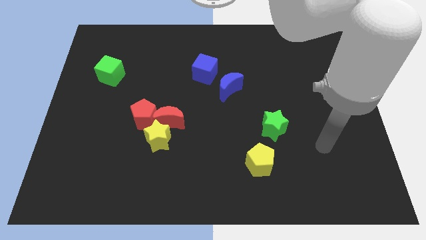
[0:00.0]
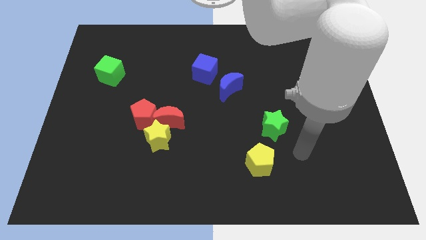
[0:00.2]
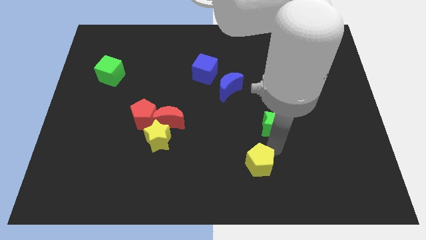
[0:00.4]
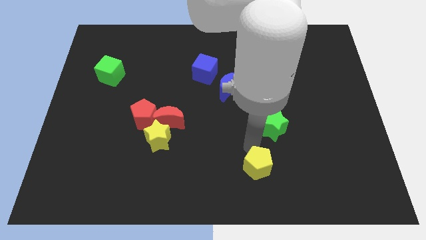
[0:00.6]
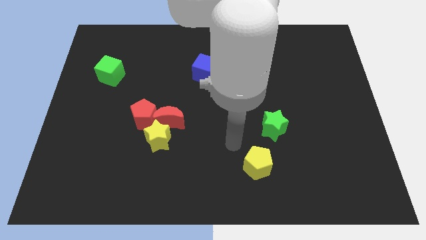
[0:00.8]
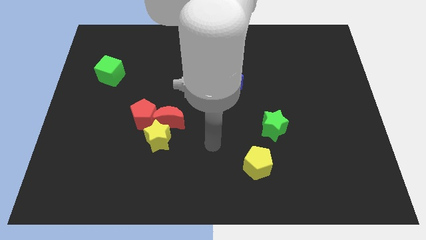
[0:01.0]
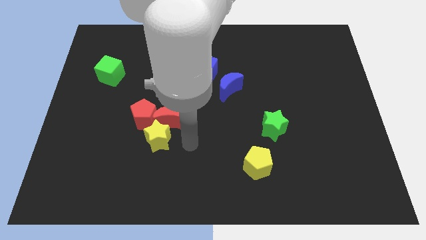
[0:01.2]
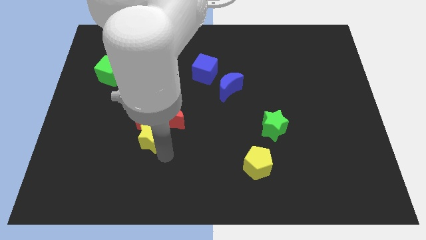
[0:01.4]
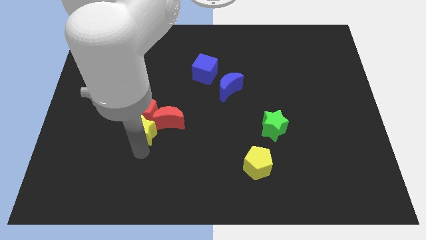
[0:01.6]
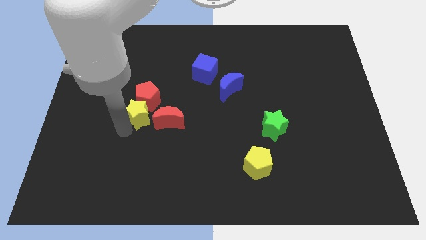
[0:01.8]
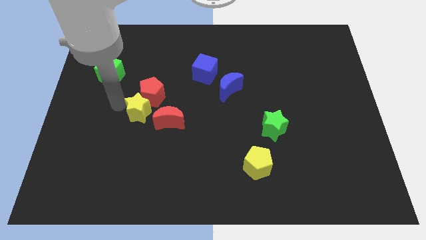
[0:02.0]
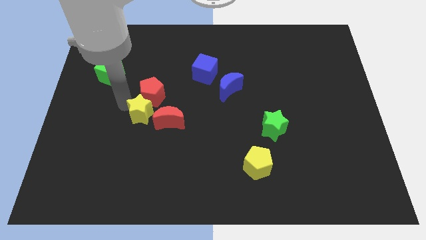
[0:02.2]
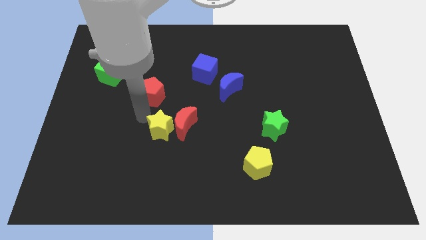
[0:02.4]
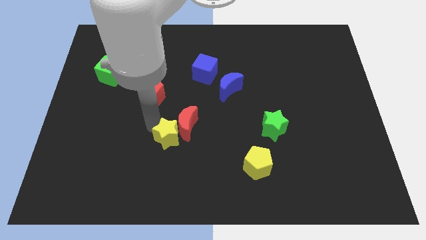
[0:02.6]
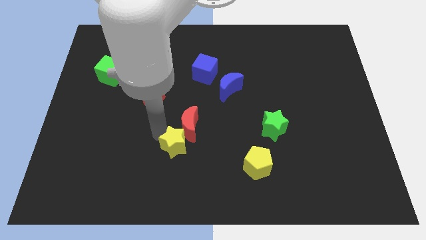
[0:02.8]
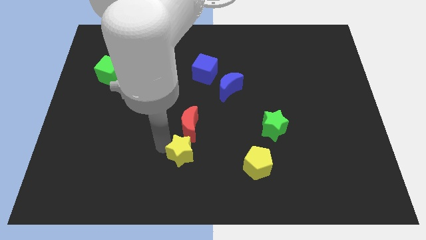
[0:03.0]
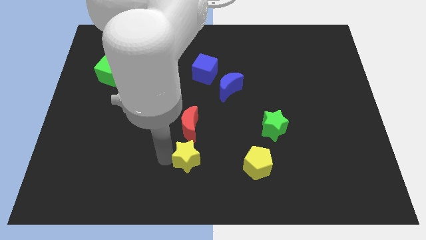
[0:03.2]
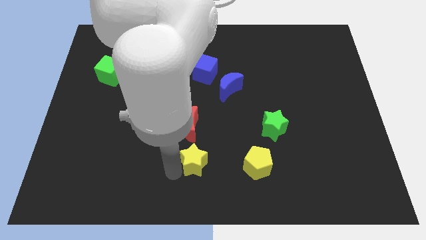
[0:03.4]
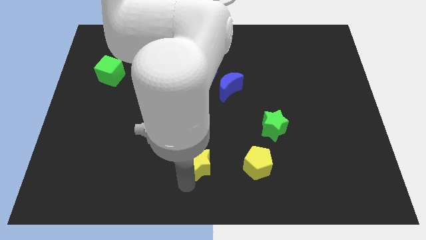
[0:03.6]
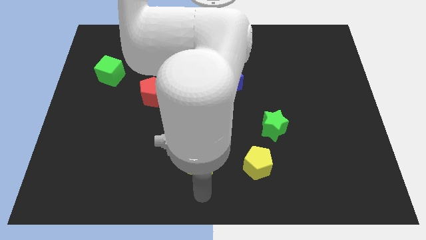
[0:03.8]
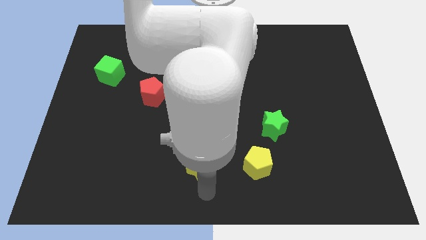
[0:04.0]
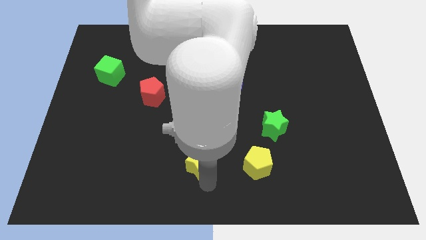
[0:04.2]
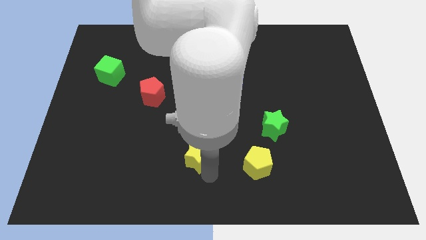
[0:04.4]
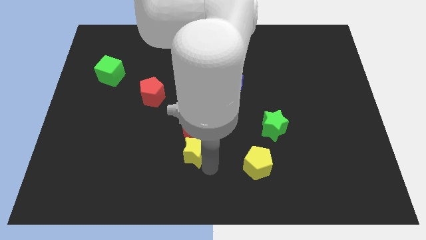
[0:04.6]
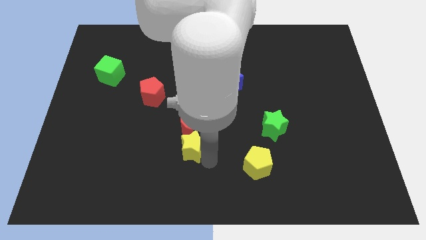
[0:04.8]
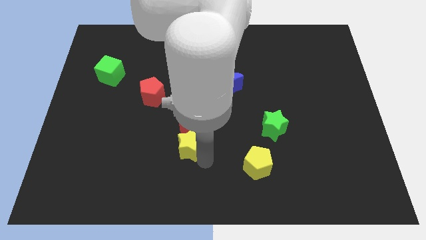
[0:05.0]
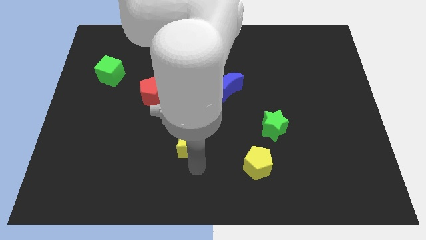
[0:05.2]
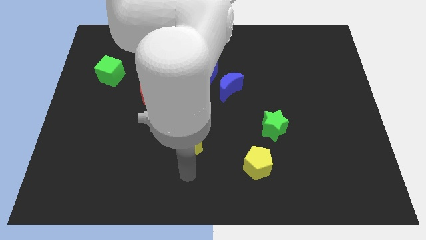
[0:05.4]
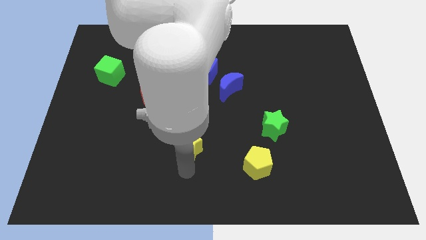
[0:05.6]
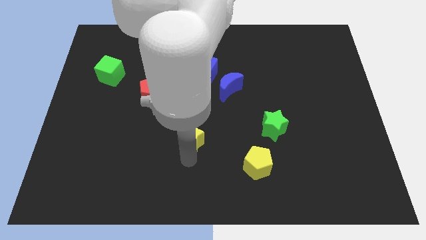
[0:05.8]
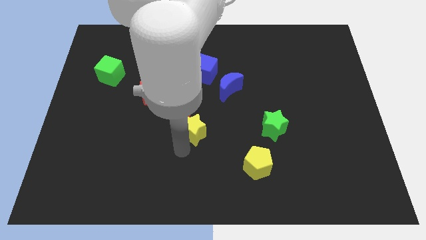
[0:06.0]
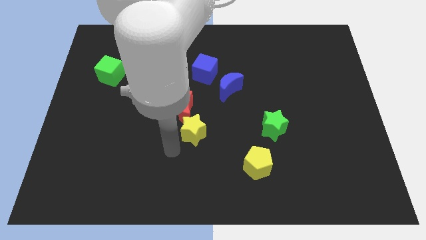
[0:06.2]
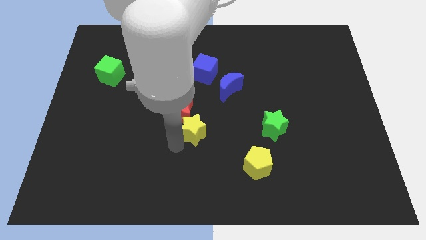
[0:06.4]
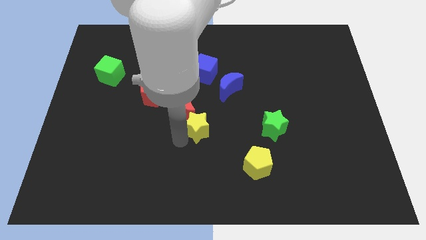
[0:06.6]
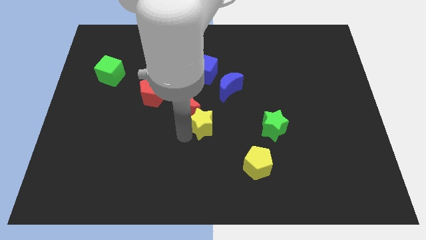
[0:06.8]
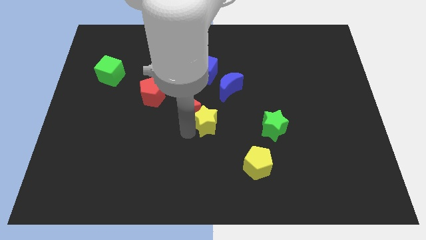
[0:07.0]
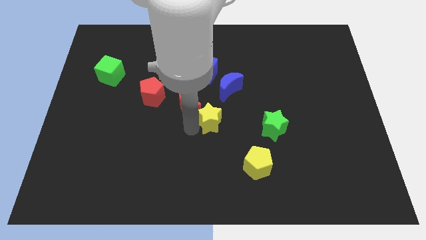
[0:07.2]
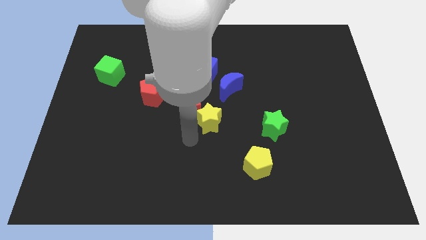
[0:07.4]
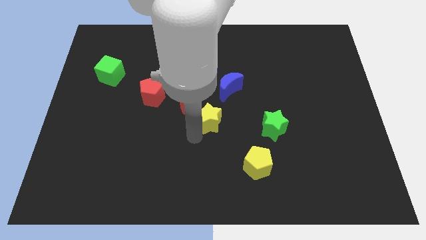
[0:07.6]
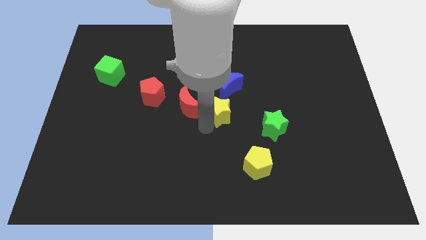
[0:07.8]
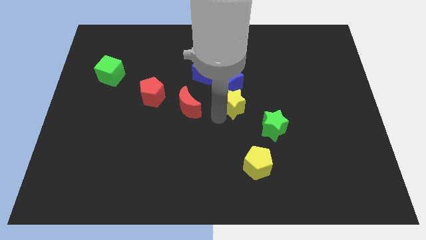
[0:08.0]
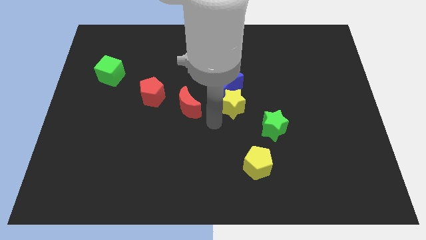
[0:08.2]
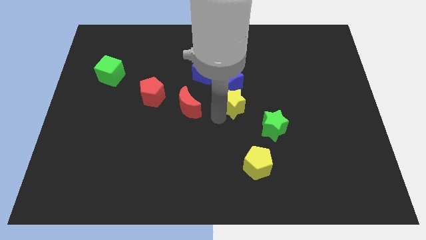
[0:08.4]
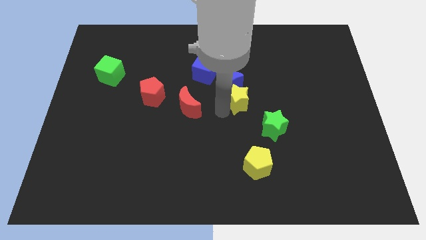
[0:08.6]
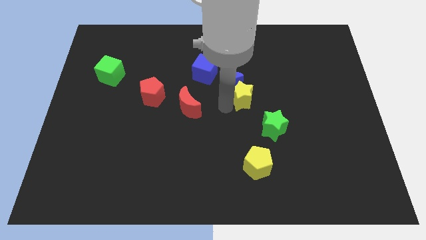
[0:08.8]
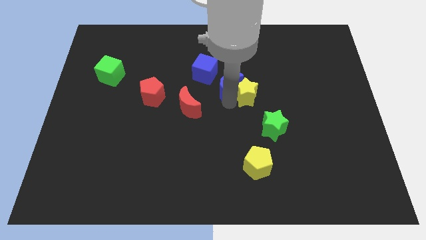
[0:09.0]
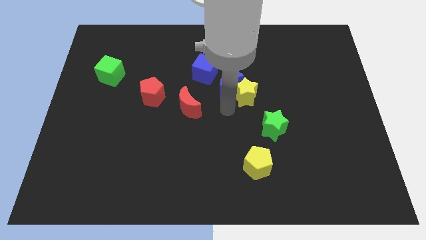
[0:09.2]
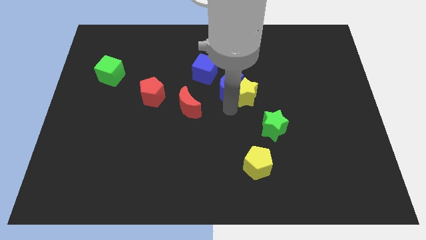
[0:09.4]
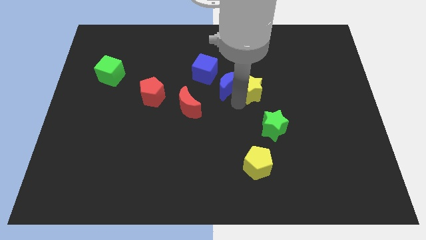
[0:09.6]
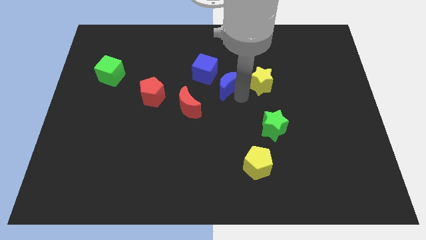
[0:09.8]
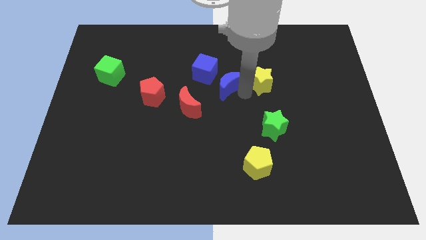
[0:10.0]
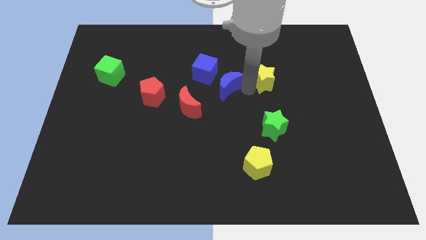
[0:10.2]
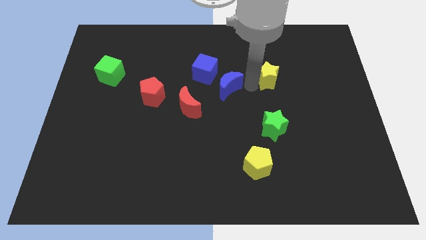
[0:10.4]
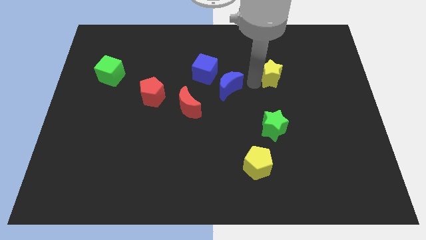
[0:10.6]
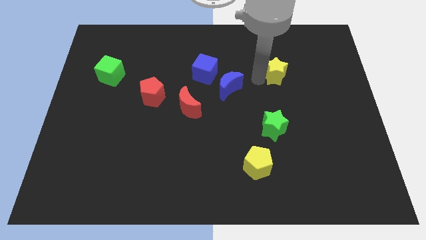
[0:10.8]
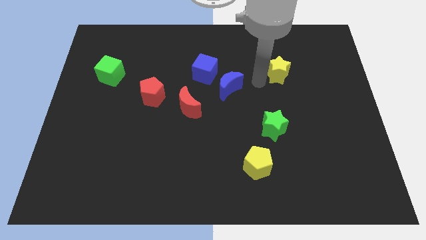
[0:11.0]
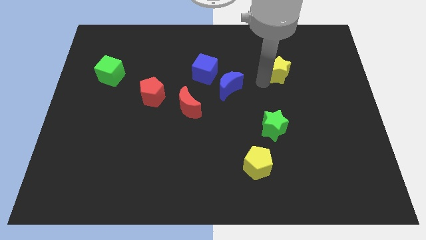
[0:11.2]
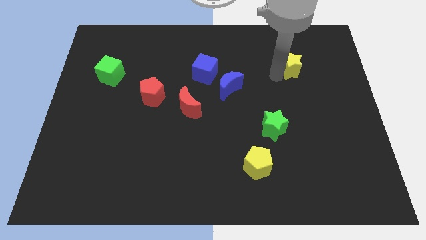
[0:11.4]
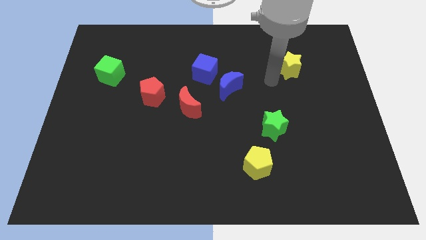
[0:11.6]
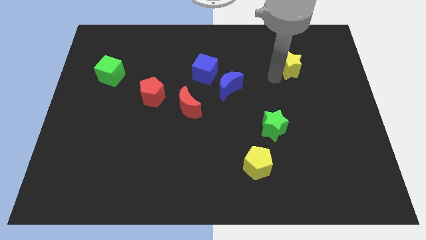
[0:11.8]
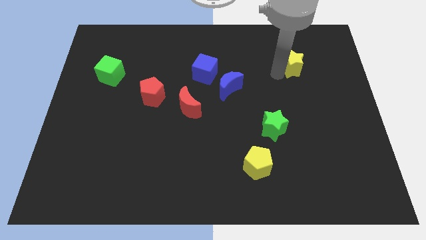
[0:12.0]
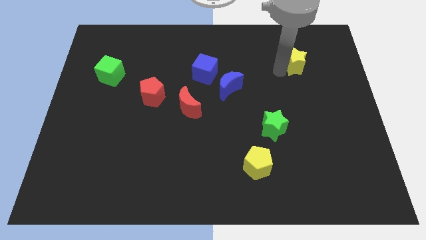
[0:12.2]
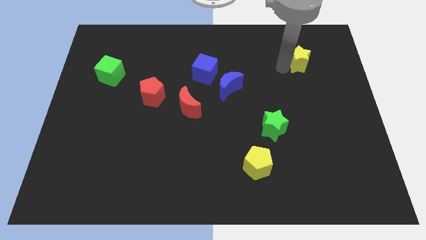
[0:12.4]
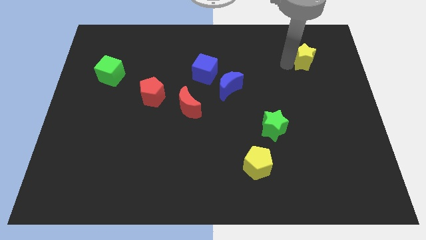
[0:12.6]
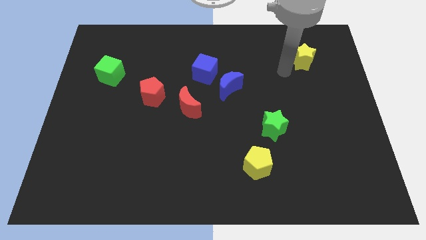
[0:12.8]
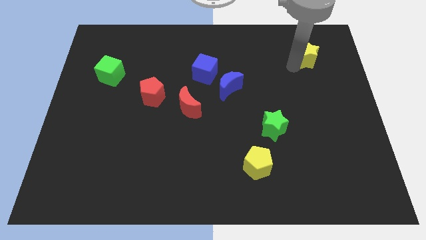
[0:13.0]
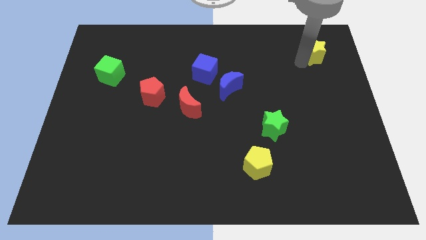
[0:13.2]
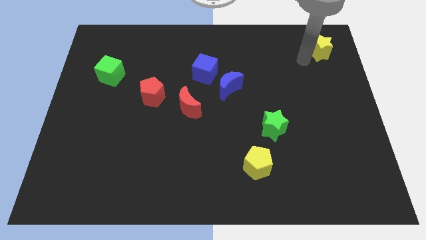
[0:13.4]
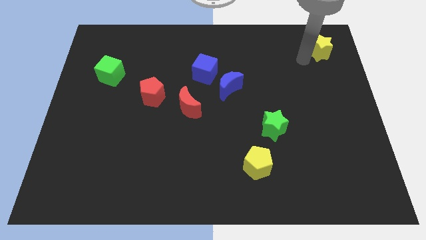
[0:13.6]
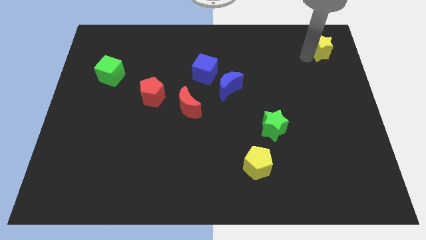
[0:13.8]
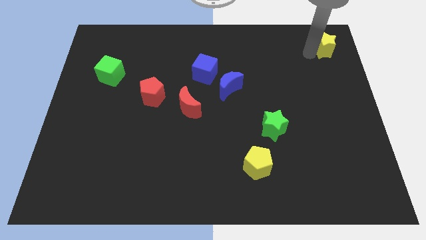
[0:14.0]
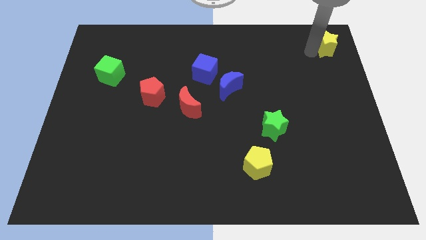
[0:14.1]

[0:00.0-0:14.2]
slide the yellow star to the upper right corner
